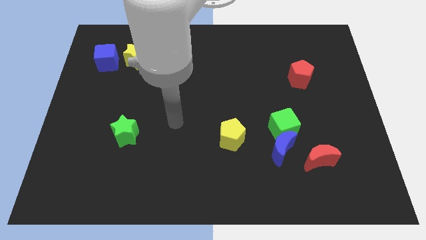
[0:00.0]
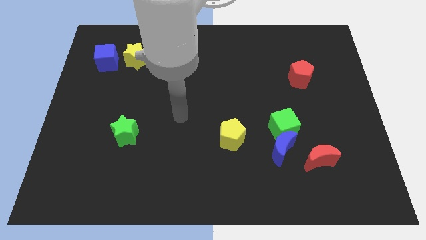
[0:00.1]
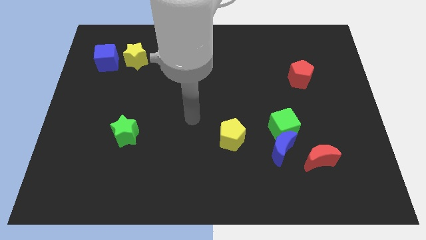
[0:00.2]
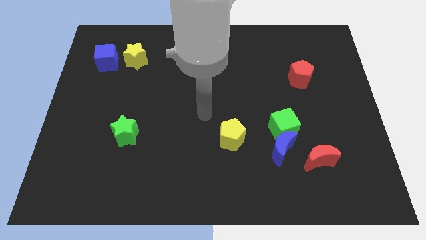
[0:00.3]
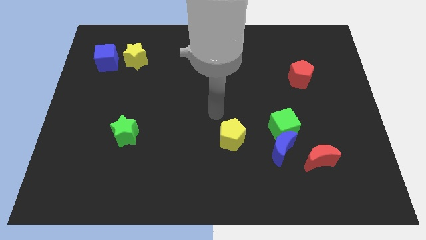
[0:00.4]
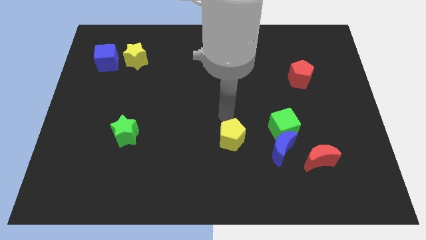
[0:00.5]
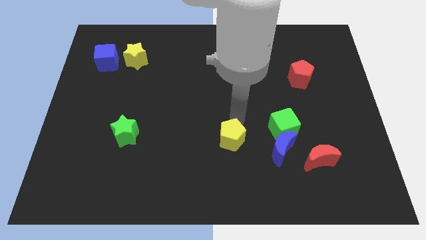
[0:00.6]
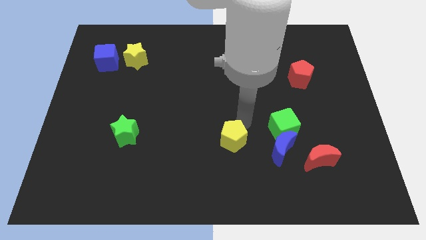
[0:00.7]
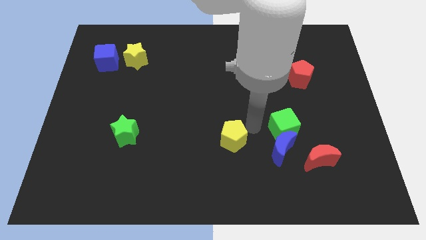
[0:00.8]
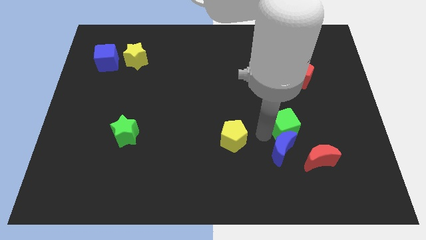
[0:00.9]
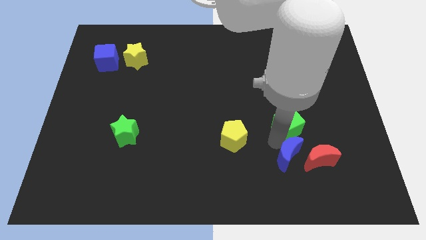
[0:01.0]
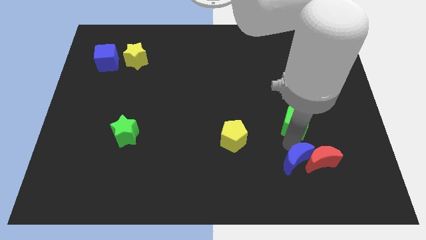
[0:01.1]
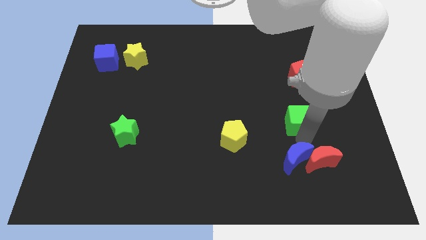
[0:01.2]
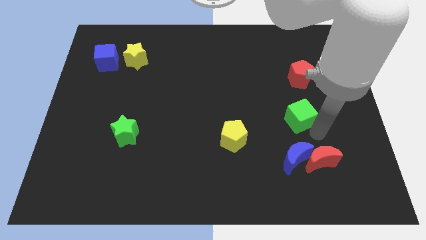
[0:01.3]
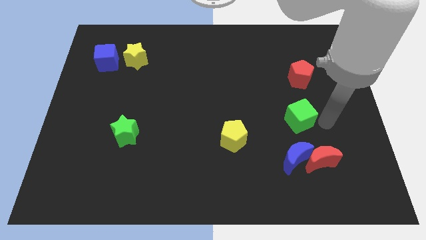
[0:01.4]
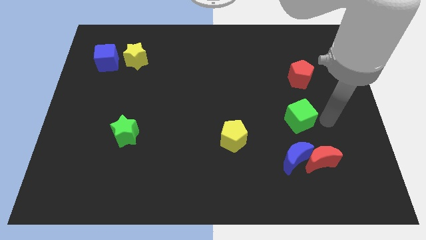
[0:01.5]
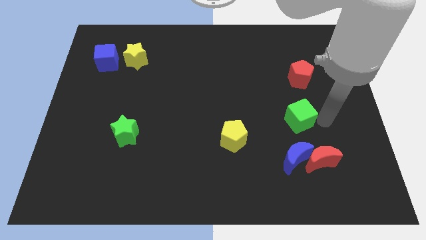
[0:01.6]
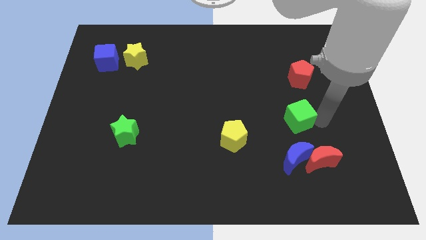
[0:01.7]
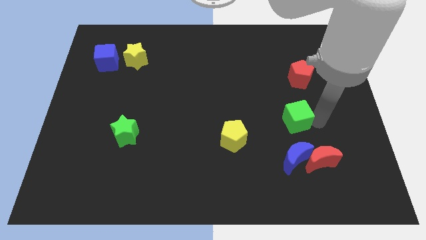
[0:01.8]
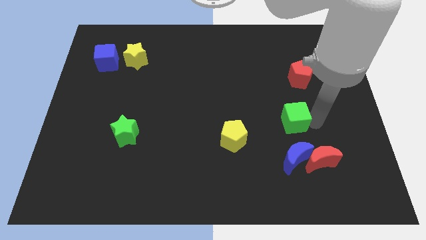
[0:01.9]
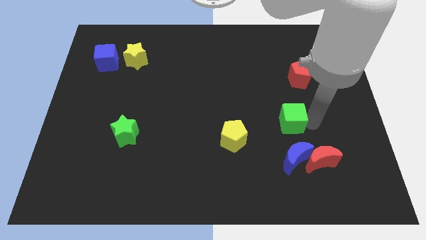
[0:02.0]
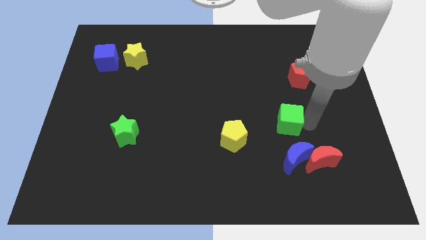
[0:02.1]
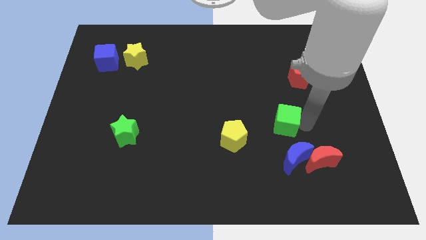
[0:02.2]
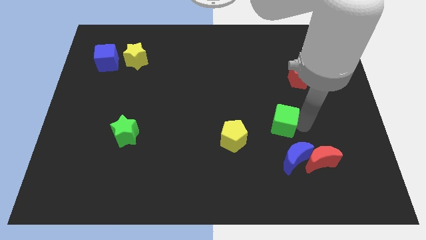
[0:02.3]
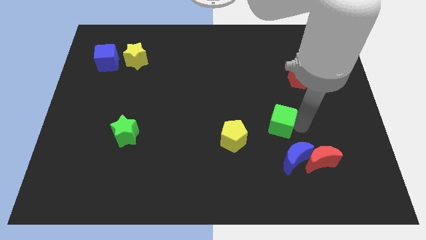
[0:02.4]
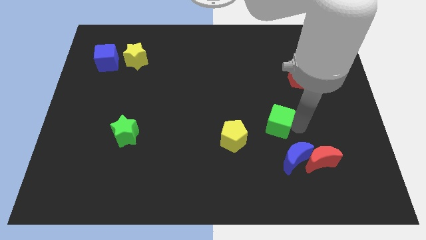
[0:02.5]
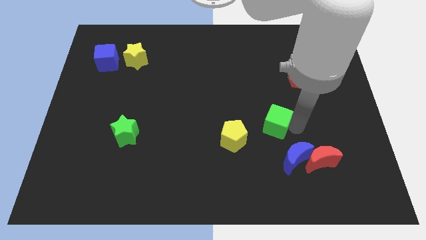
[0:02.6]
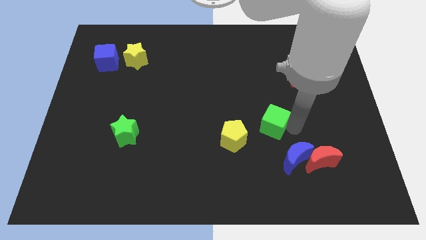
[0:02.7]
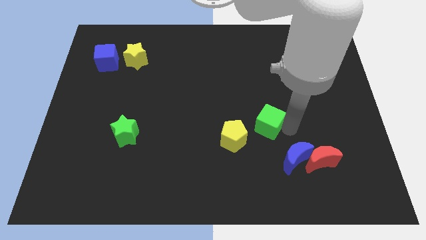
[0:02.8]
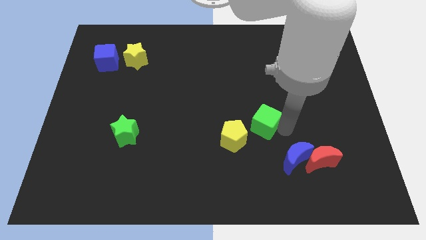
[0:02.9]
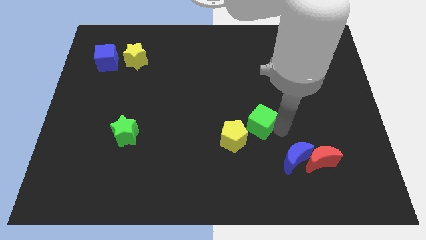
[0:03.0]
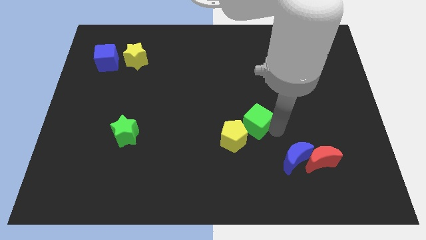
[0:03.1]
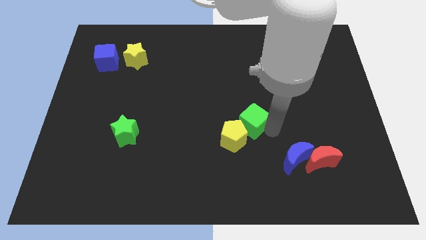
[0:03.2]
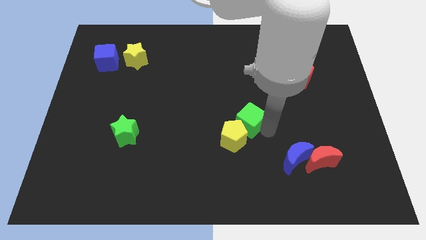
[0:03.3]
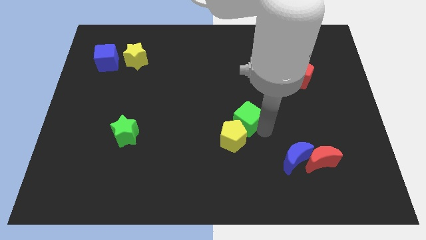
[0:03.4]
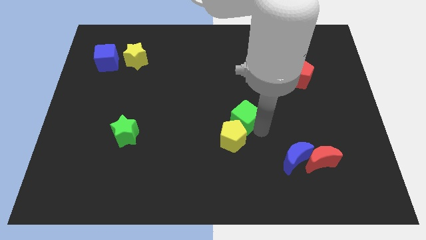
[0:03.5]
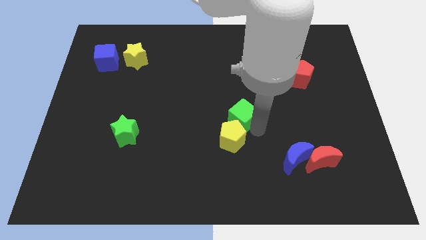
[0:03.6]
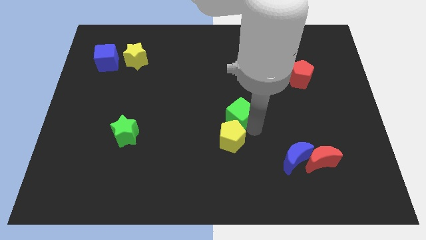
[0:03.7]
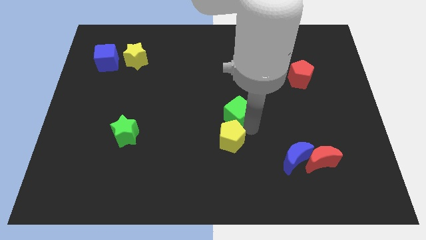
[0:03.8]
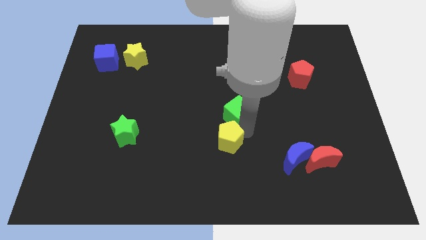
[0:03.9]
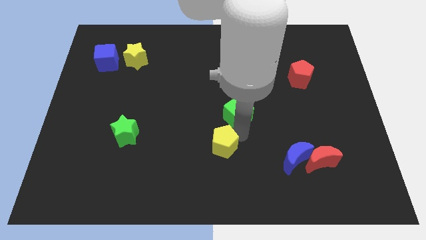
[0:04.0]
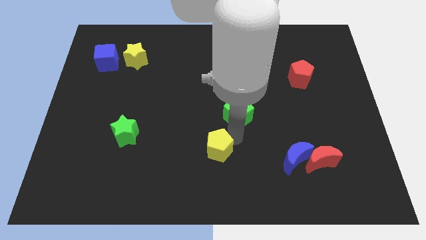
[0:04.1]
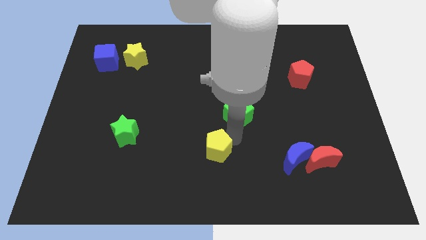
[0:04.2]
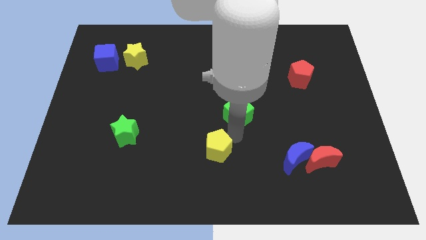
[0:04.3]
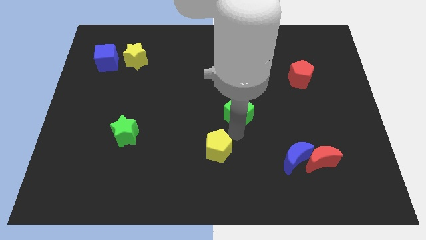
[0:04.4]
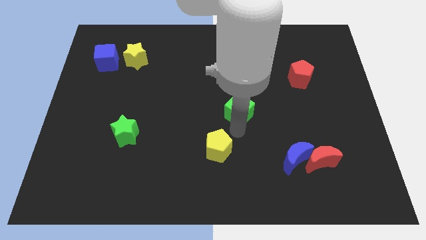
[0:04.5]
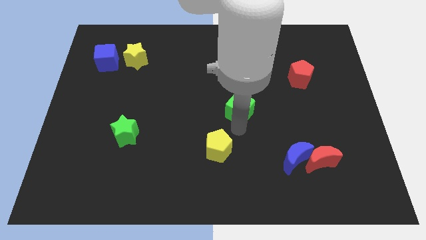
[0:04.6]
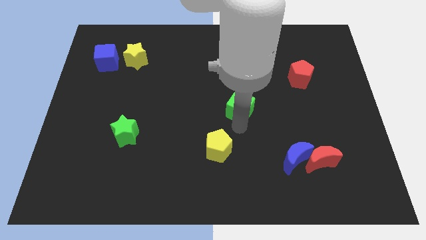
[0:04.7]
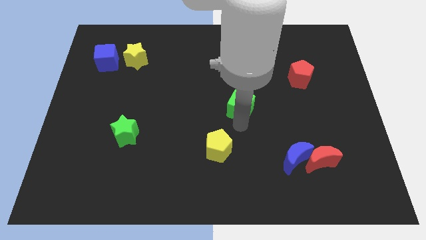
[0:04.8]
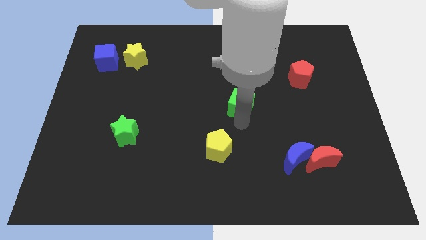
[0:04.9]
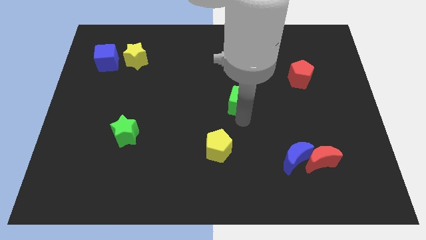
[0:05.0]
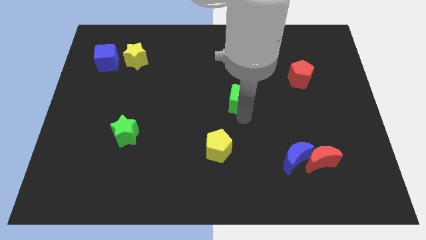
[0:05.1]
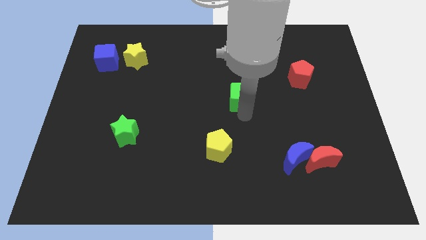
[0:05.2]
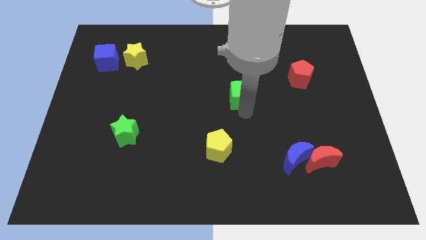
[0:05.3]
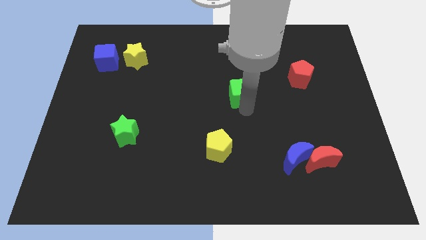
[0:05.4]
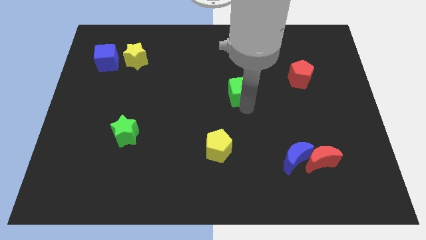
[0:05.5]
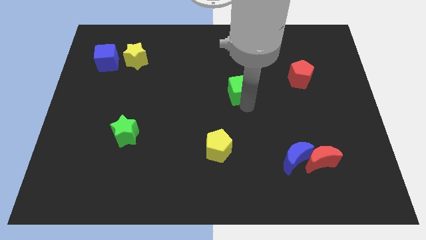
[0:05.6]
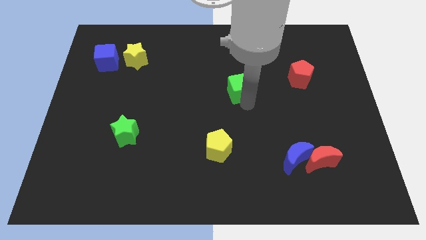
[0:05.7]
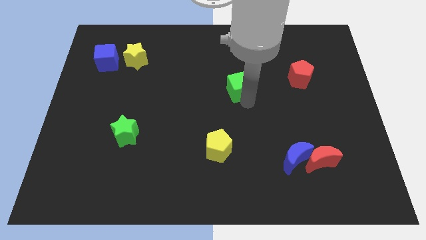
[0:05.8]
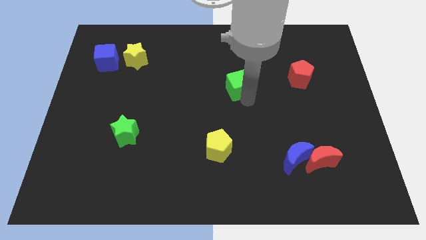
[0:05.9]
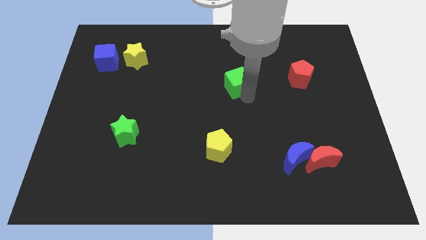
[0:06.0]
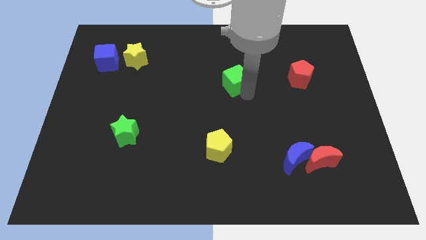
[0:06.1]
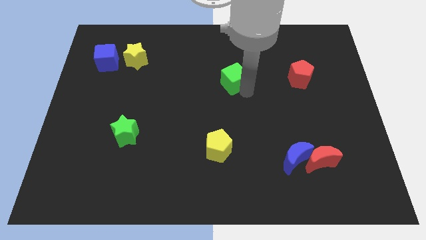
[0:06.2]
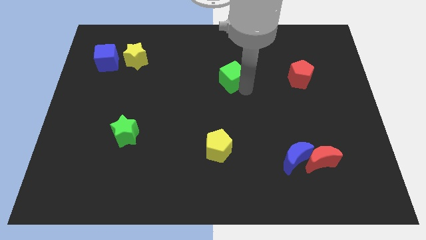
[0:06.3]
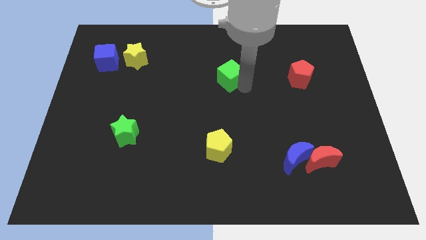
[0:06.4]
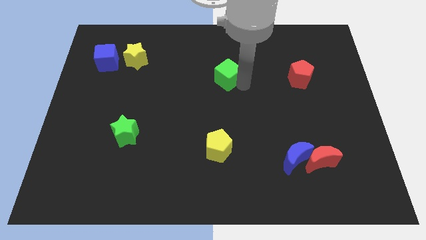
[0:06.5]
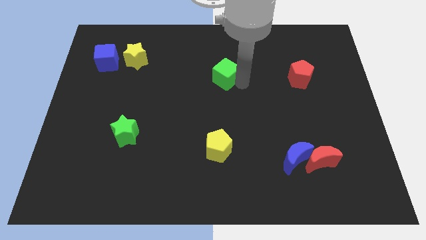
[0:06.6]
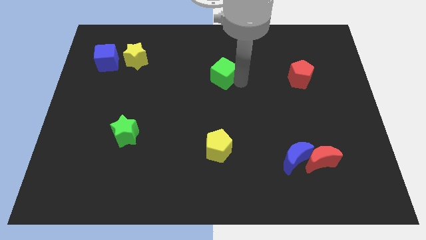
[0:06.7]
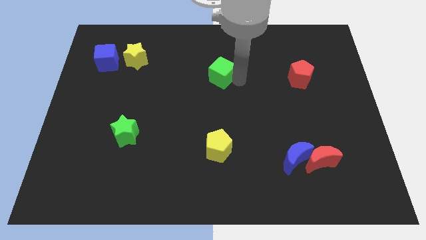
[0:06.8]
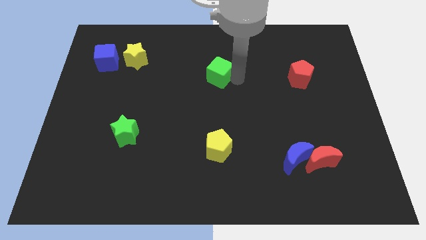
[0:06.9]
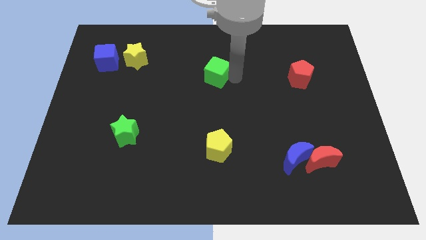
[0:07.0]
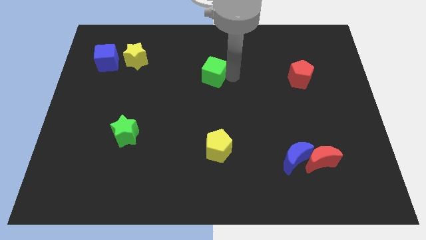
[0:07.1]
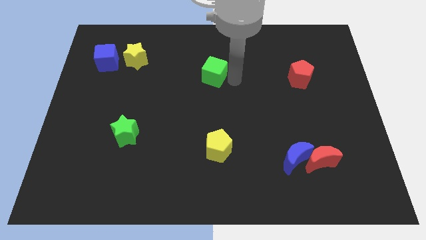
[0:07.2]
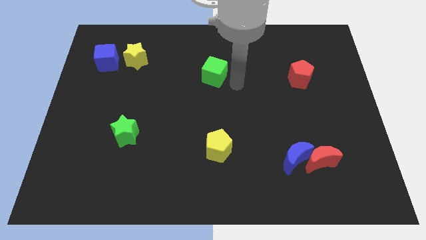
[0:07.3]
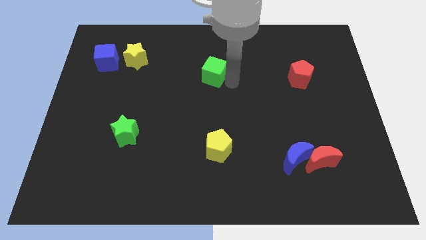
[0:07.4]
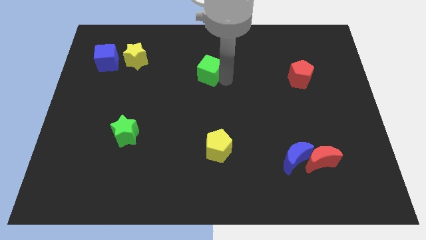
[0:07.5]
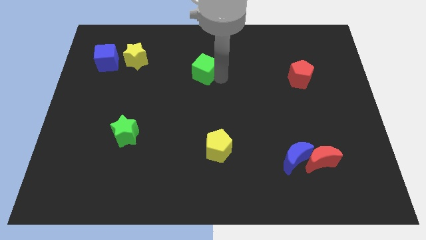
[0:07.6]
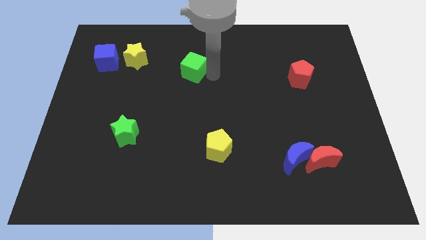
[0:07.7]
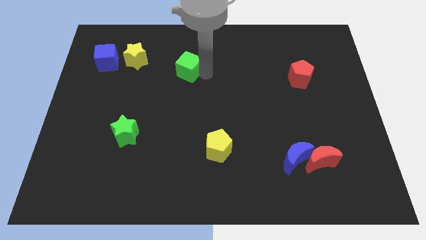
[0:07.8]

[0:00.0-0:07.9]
slide the green cube just right of the yellow star

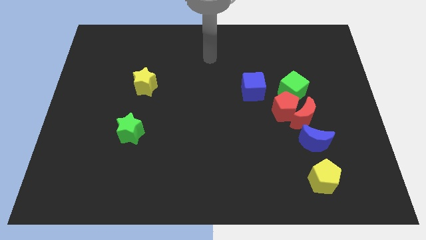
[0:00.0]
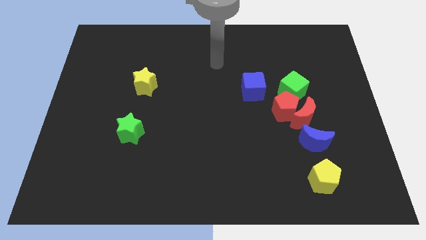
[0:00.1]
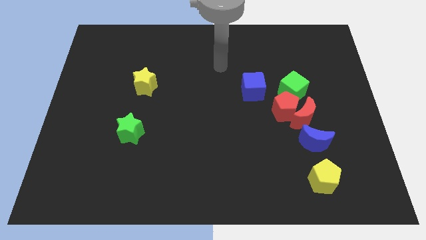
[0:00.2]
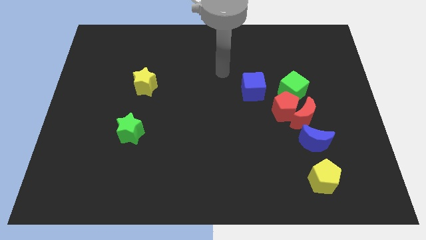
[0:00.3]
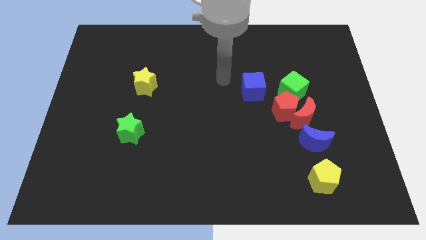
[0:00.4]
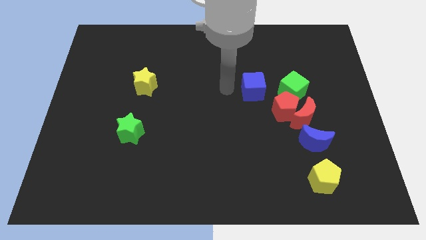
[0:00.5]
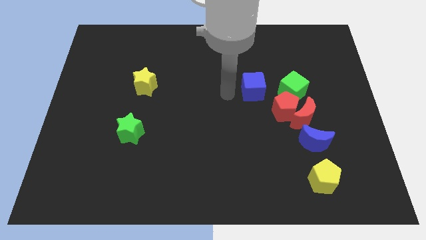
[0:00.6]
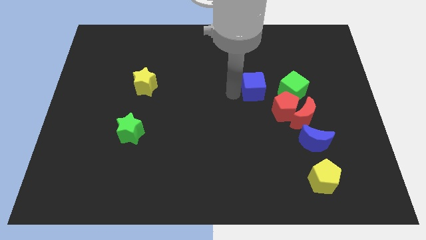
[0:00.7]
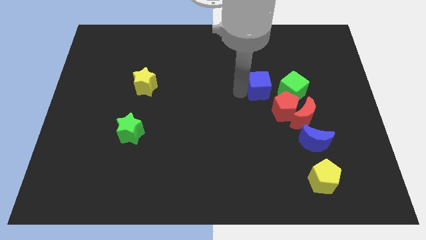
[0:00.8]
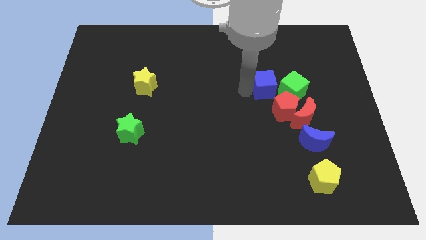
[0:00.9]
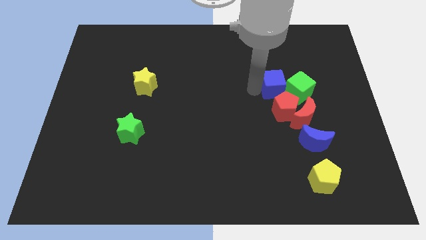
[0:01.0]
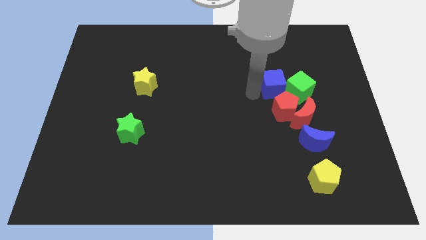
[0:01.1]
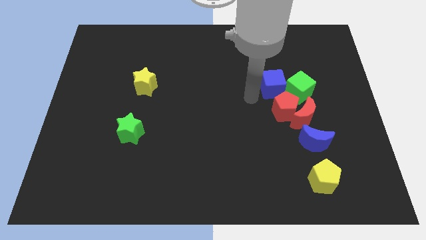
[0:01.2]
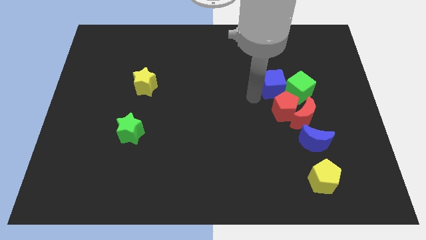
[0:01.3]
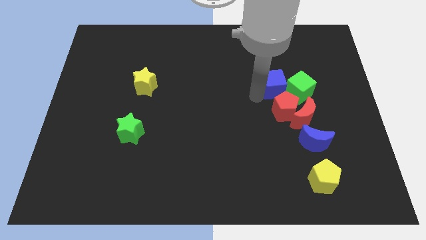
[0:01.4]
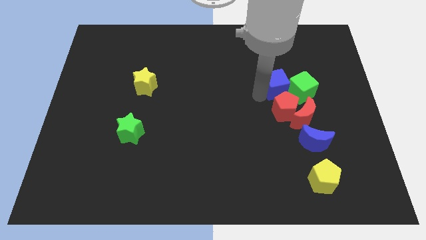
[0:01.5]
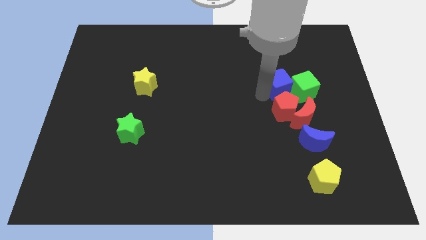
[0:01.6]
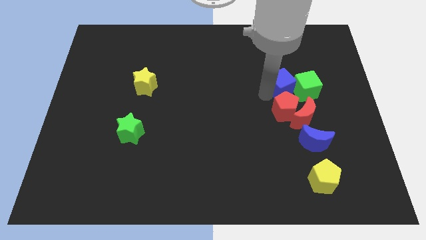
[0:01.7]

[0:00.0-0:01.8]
put the blue cube diagonally up and to the right of the red pentagon
